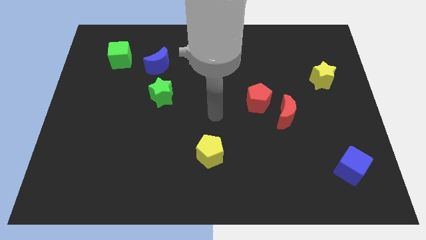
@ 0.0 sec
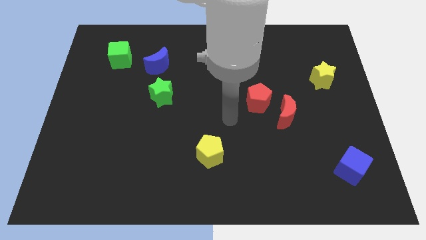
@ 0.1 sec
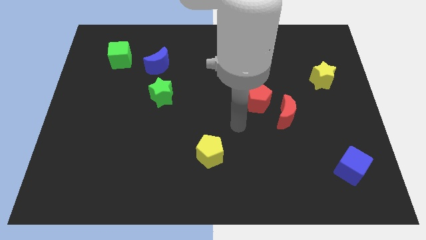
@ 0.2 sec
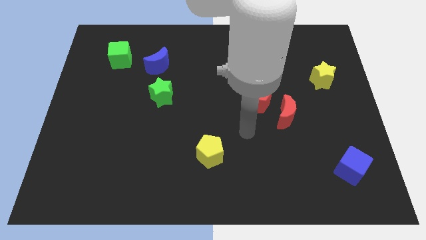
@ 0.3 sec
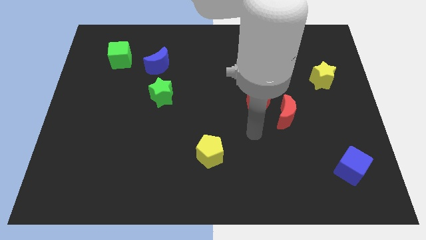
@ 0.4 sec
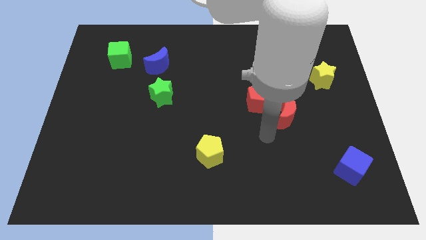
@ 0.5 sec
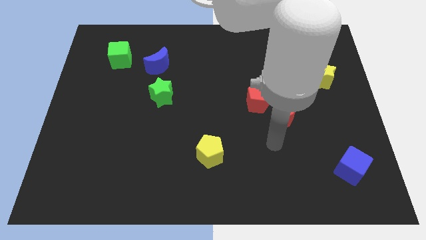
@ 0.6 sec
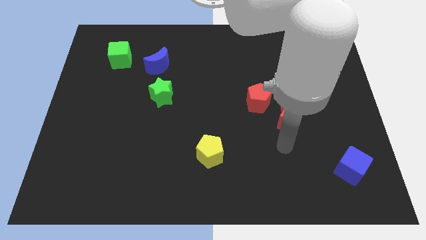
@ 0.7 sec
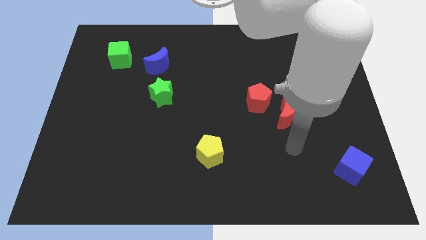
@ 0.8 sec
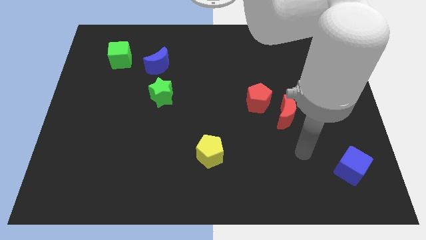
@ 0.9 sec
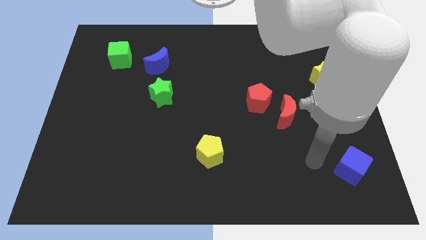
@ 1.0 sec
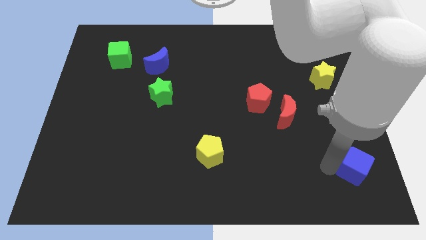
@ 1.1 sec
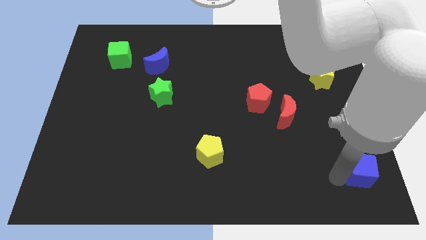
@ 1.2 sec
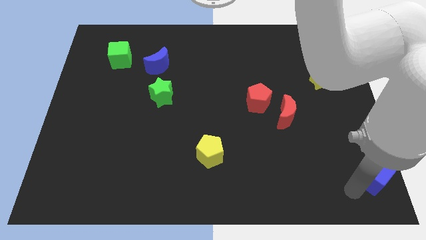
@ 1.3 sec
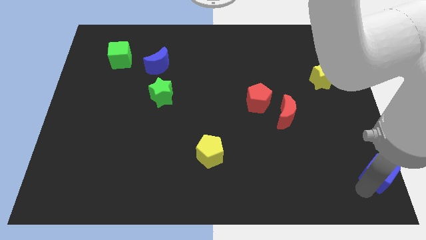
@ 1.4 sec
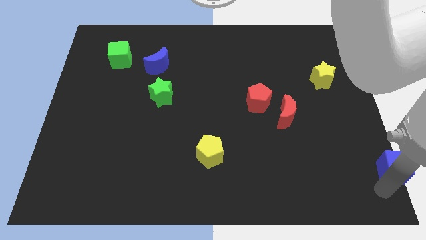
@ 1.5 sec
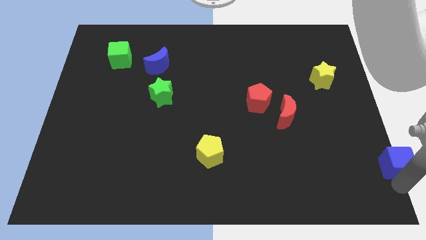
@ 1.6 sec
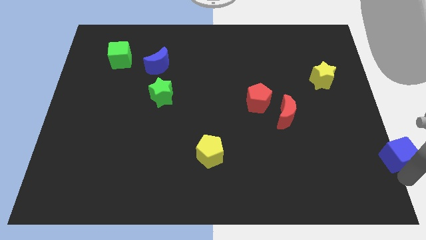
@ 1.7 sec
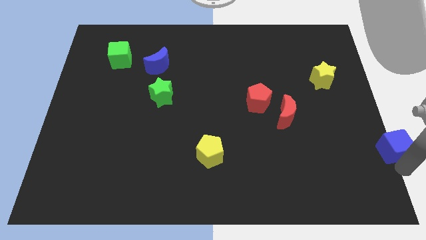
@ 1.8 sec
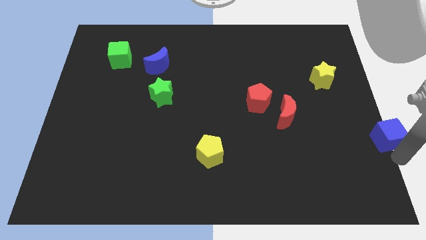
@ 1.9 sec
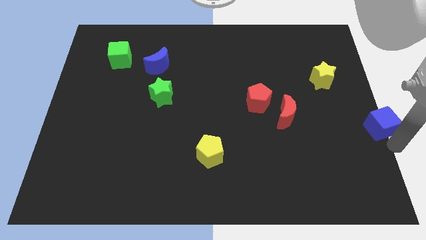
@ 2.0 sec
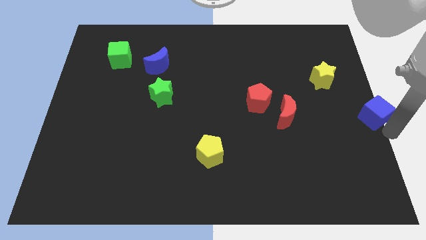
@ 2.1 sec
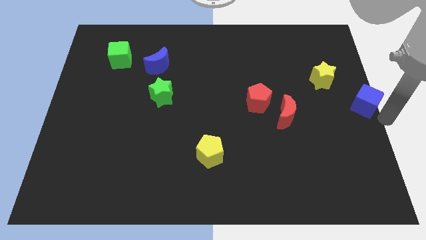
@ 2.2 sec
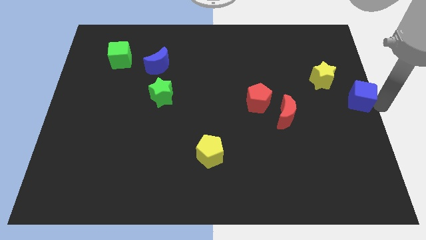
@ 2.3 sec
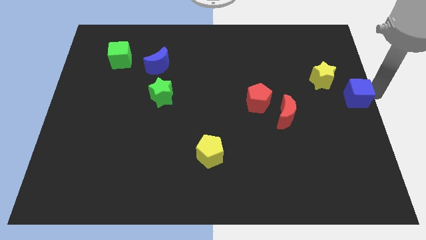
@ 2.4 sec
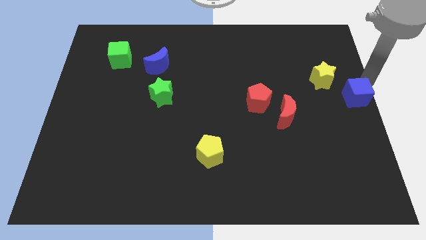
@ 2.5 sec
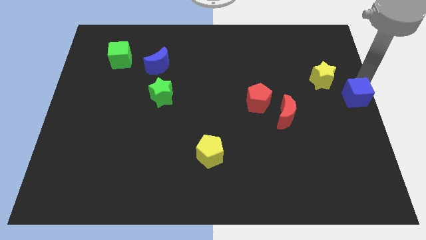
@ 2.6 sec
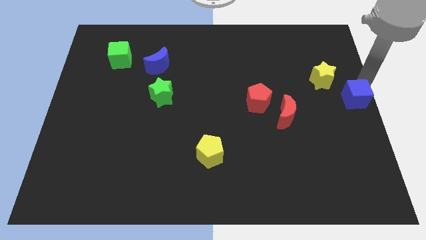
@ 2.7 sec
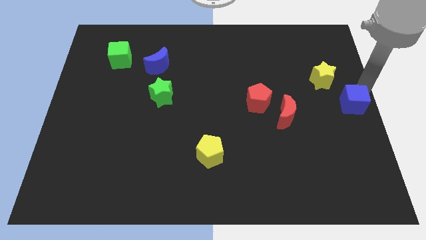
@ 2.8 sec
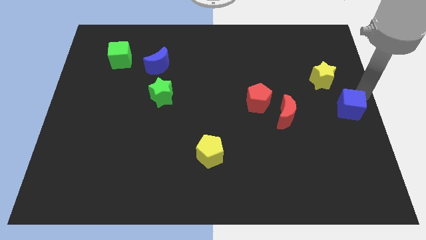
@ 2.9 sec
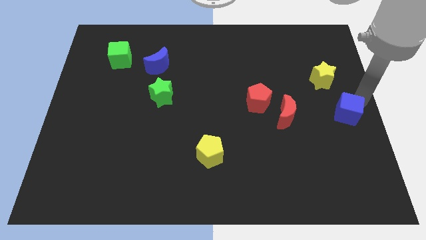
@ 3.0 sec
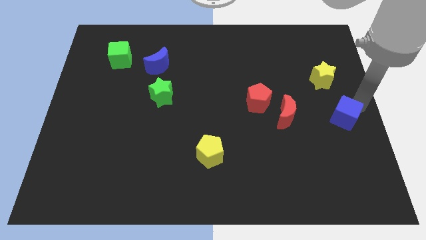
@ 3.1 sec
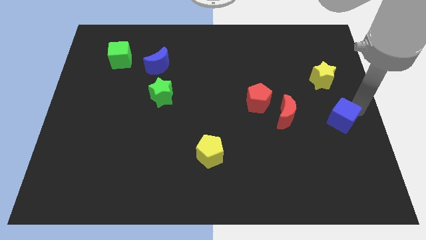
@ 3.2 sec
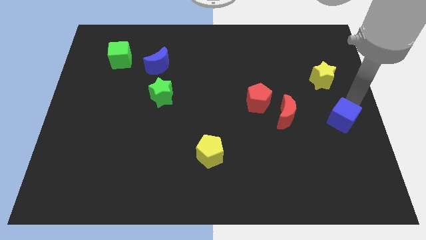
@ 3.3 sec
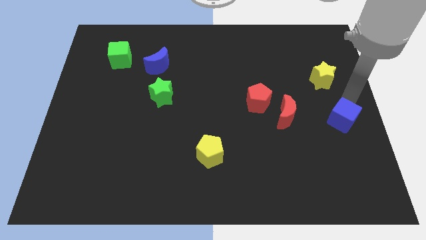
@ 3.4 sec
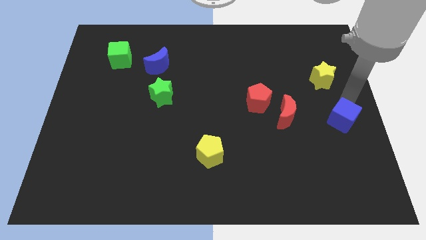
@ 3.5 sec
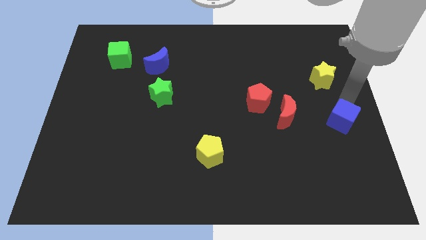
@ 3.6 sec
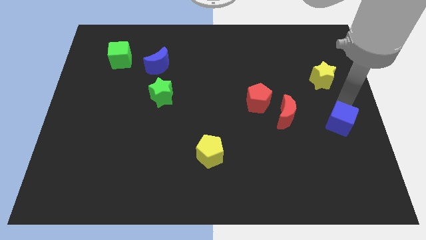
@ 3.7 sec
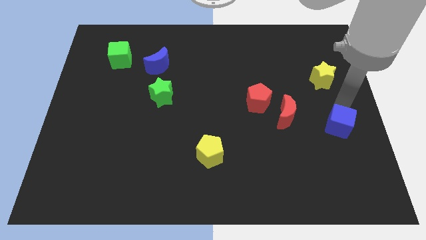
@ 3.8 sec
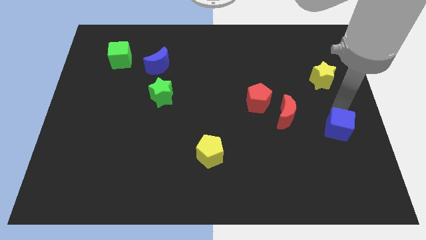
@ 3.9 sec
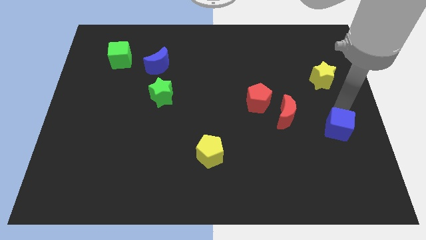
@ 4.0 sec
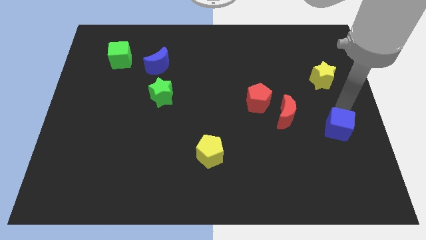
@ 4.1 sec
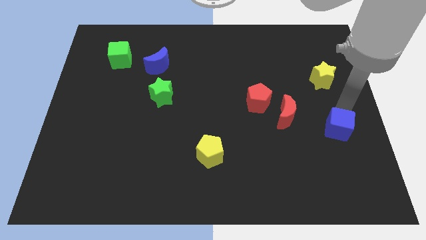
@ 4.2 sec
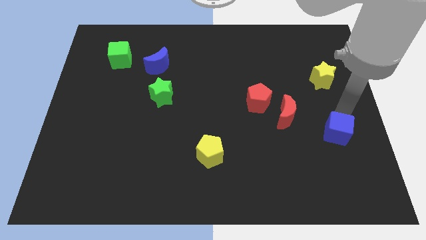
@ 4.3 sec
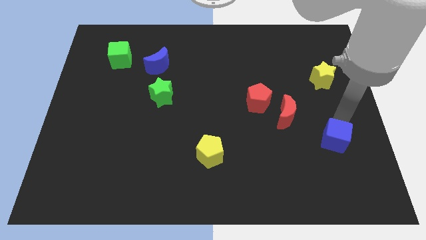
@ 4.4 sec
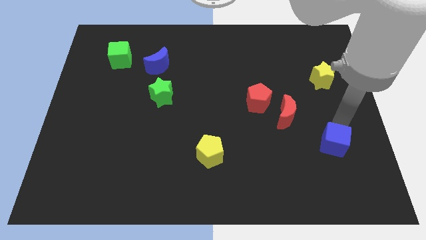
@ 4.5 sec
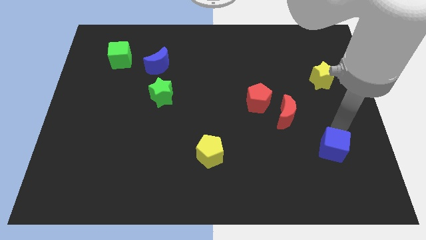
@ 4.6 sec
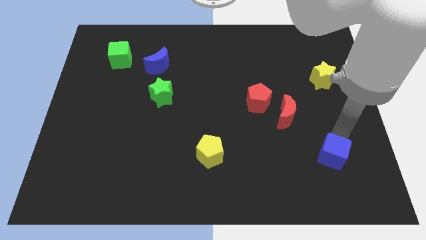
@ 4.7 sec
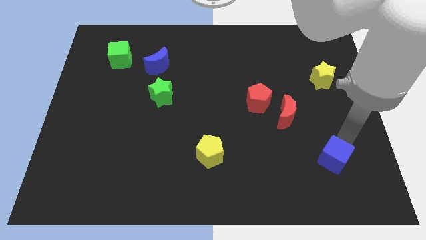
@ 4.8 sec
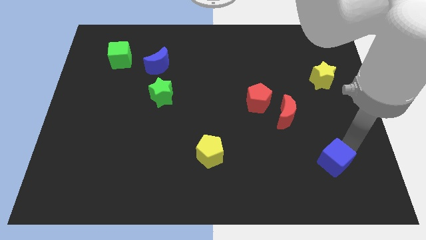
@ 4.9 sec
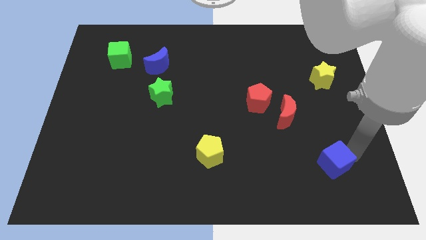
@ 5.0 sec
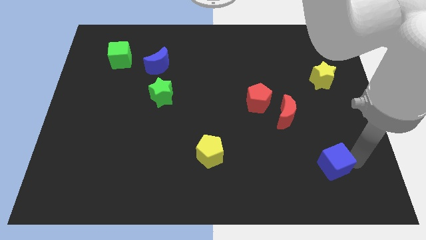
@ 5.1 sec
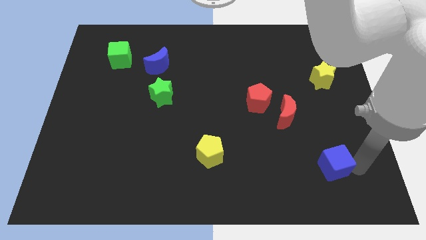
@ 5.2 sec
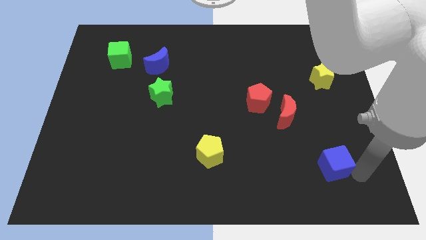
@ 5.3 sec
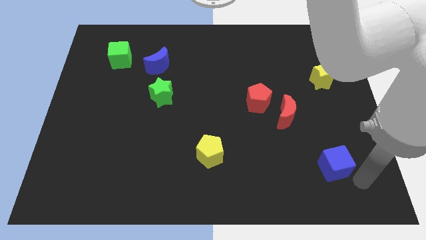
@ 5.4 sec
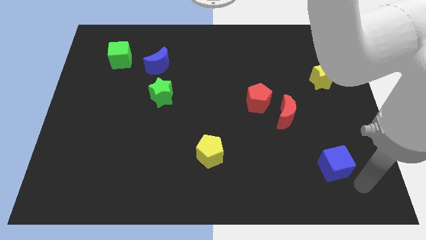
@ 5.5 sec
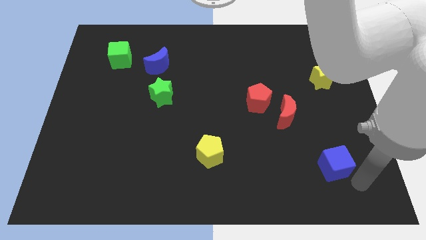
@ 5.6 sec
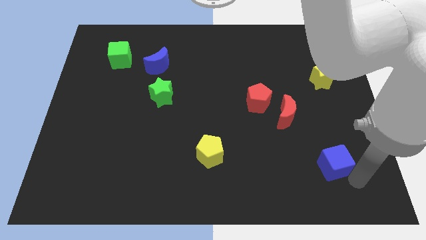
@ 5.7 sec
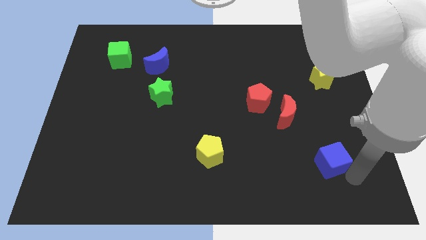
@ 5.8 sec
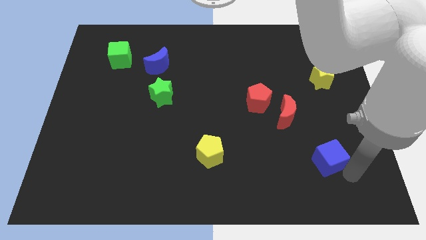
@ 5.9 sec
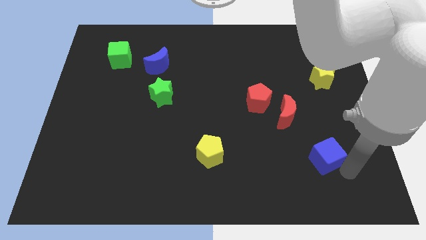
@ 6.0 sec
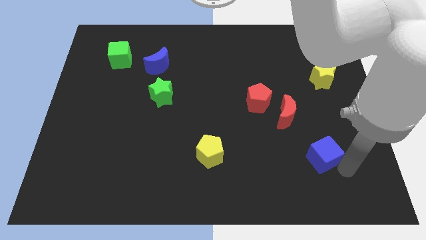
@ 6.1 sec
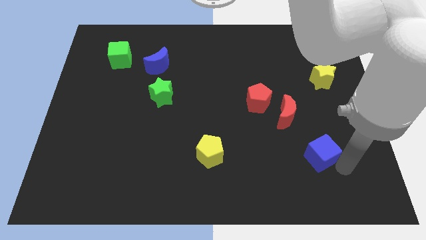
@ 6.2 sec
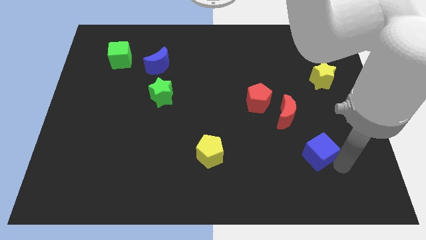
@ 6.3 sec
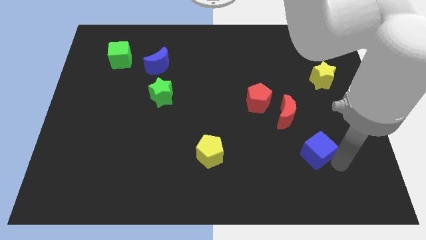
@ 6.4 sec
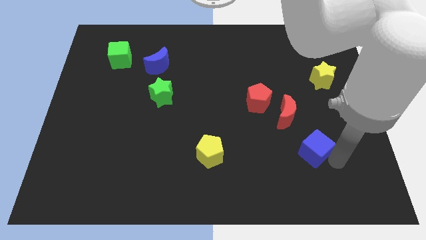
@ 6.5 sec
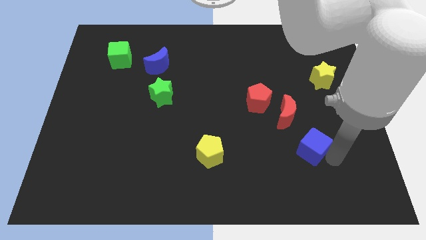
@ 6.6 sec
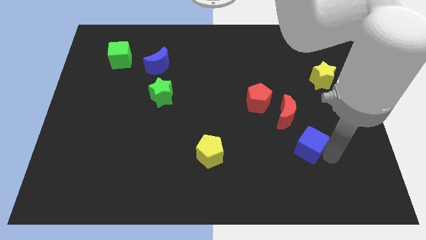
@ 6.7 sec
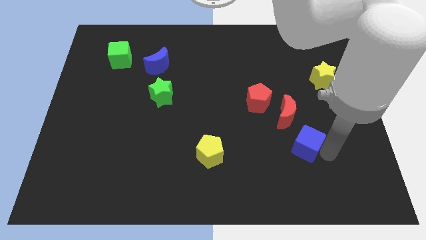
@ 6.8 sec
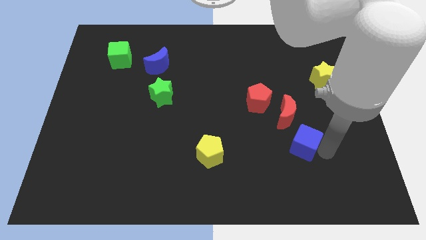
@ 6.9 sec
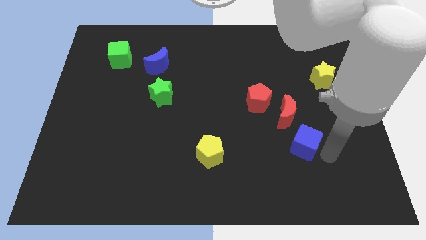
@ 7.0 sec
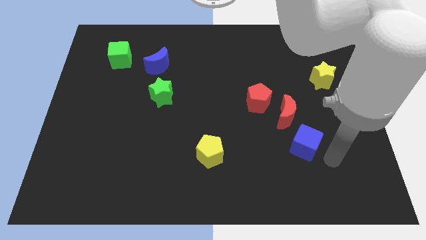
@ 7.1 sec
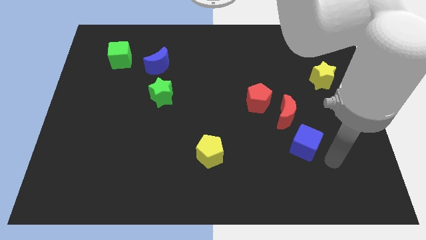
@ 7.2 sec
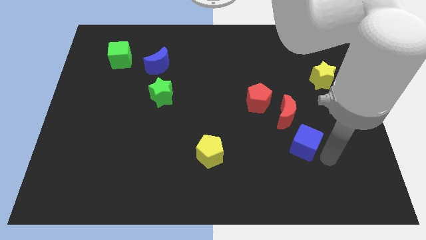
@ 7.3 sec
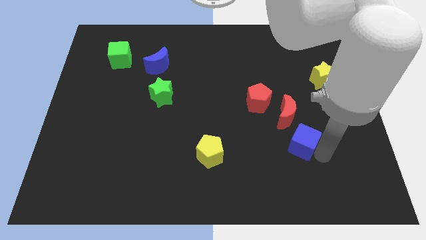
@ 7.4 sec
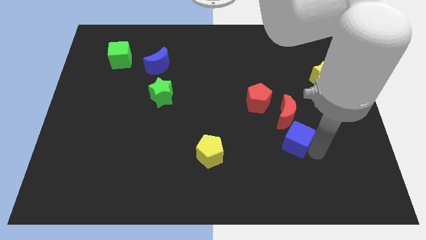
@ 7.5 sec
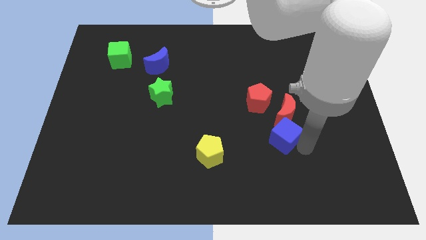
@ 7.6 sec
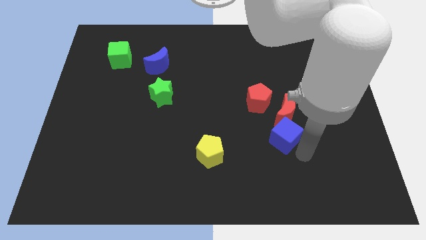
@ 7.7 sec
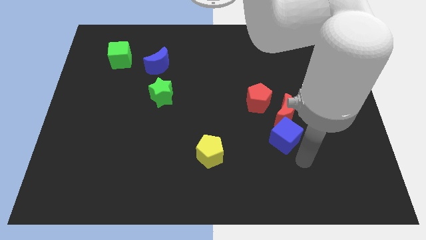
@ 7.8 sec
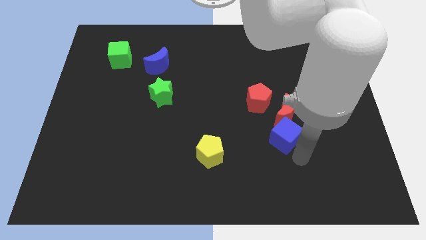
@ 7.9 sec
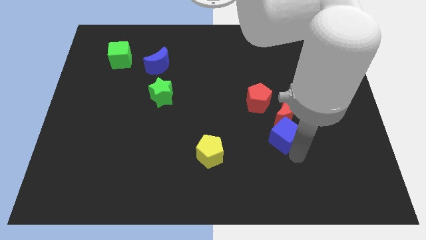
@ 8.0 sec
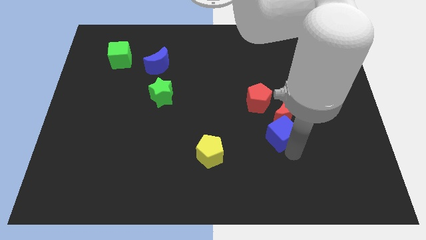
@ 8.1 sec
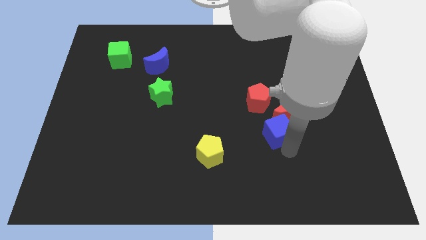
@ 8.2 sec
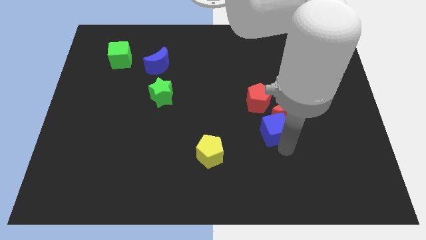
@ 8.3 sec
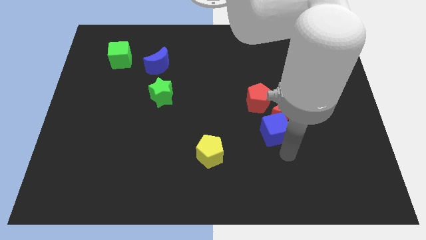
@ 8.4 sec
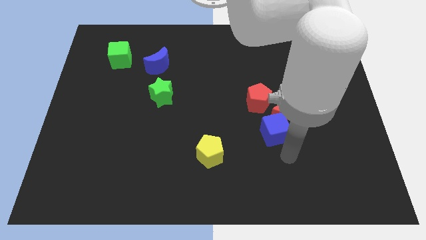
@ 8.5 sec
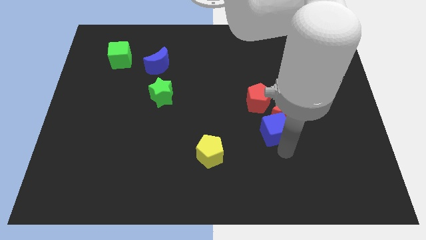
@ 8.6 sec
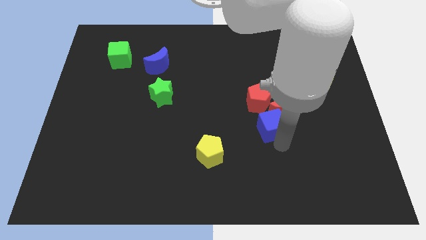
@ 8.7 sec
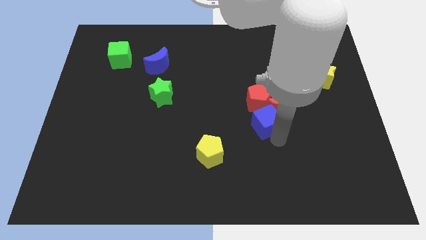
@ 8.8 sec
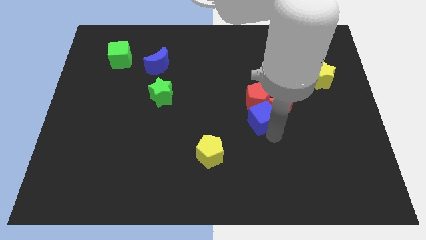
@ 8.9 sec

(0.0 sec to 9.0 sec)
slide the blue cube towards the red pentagon
